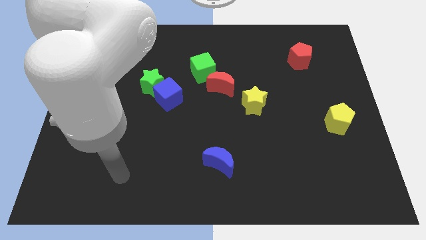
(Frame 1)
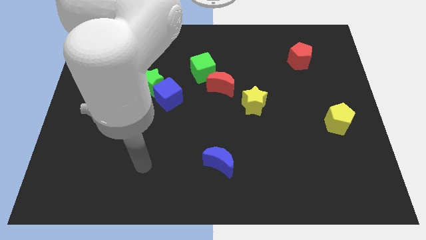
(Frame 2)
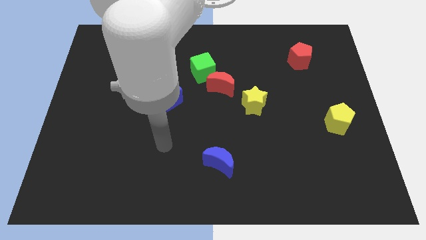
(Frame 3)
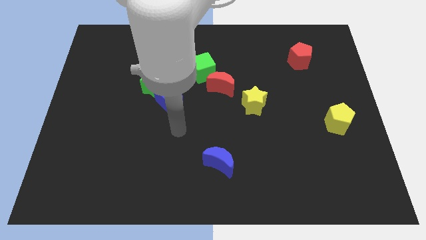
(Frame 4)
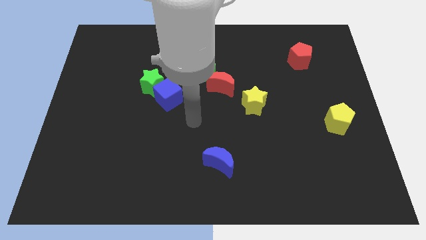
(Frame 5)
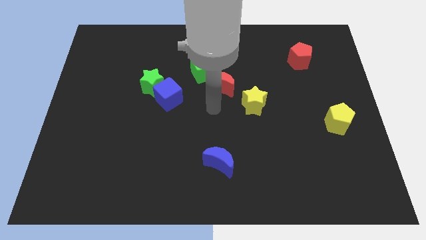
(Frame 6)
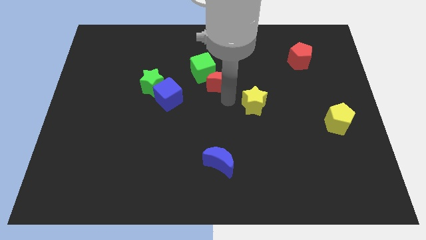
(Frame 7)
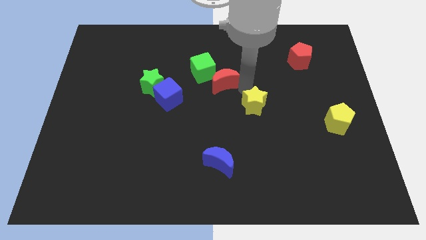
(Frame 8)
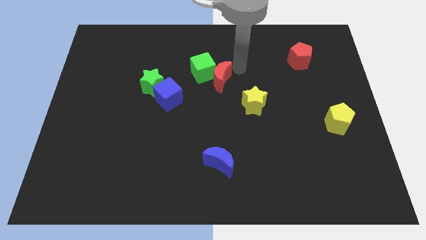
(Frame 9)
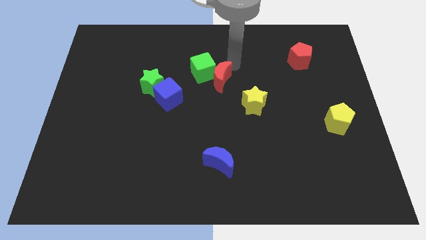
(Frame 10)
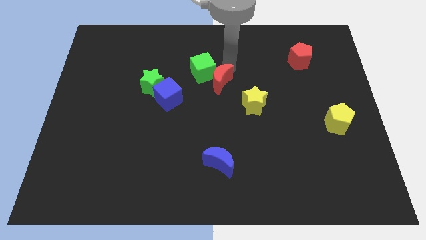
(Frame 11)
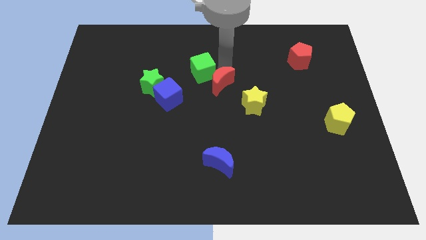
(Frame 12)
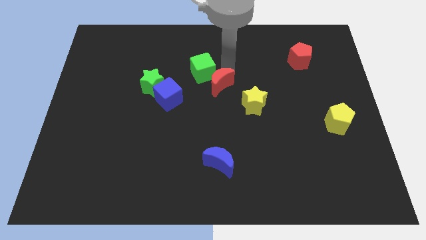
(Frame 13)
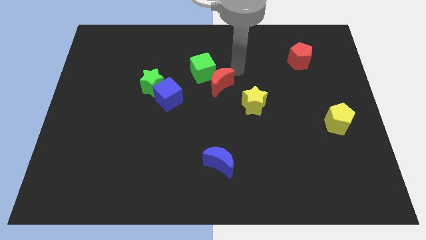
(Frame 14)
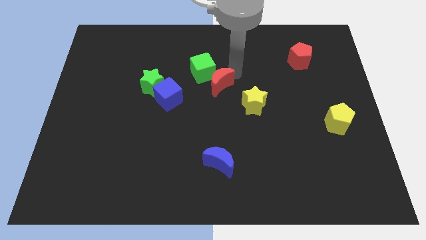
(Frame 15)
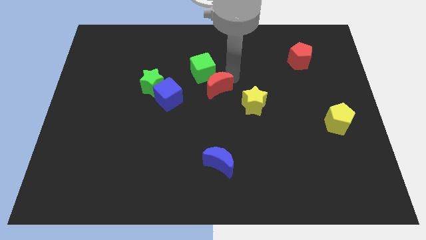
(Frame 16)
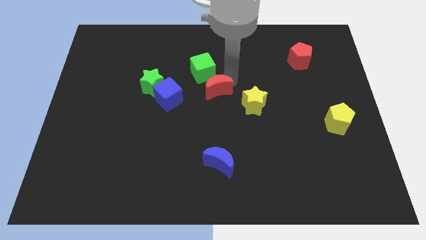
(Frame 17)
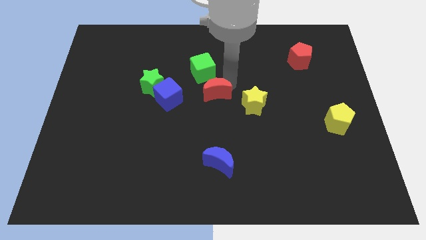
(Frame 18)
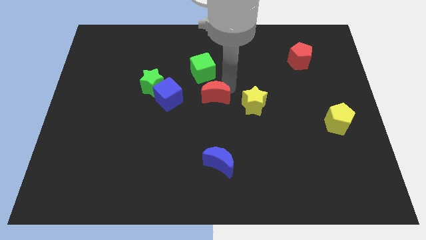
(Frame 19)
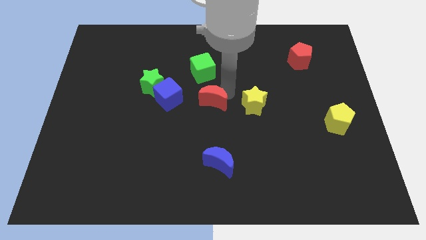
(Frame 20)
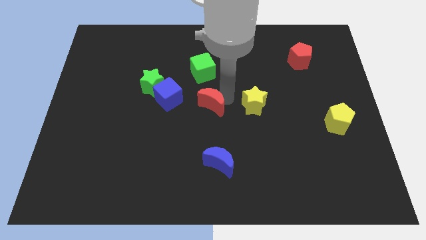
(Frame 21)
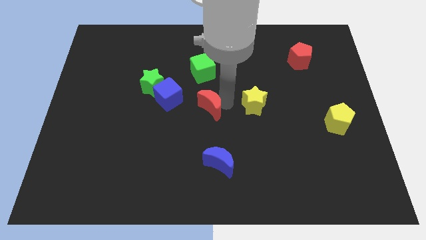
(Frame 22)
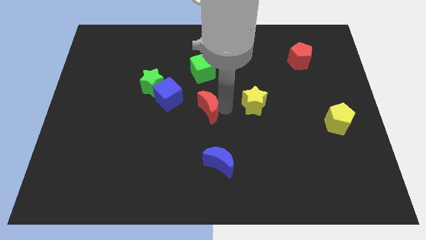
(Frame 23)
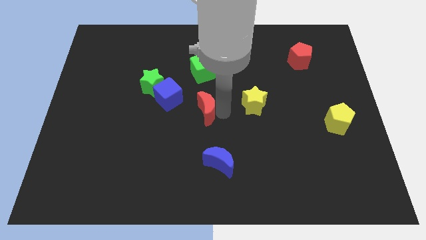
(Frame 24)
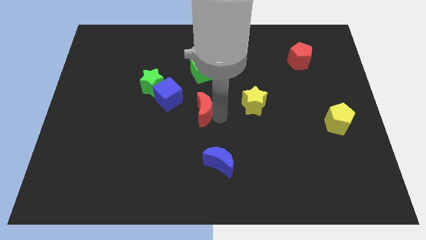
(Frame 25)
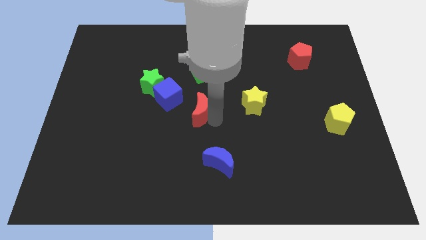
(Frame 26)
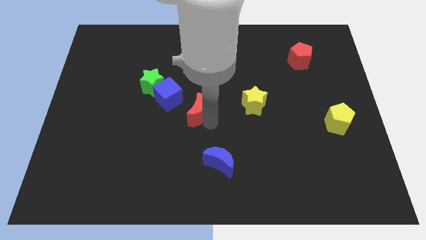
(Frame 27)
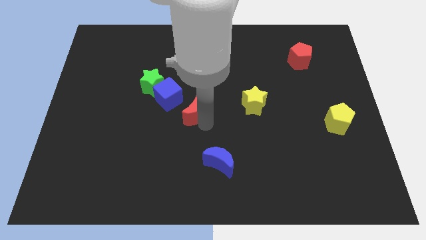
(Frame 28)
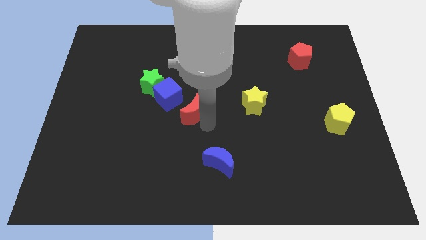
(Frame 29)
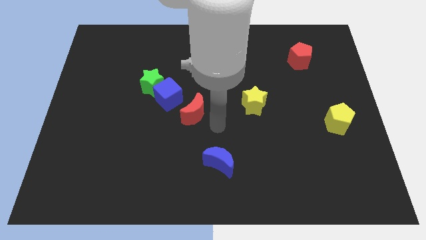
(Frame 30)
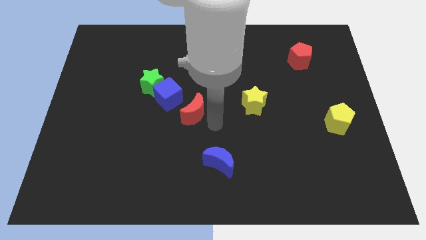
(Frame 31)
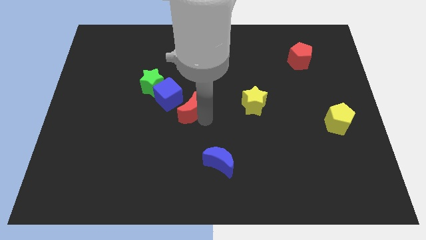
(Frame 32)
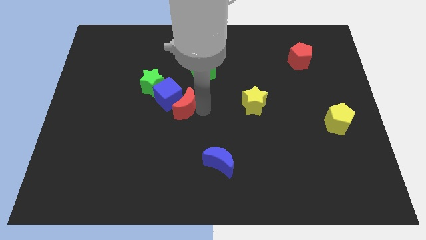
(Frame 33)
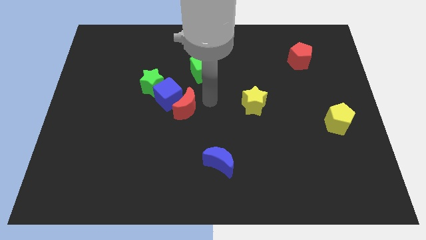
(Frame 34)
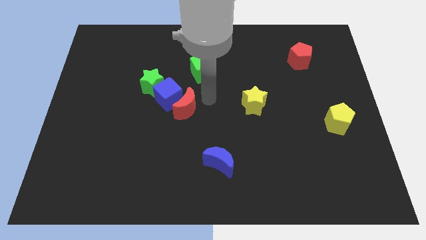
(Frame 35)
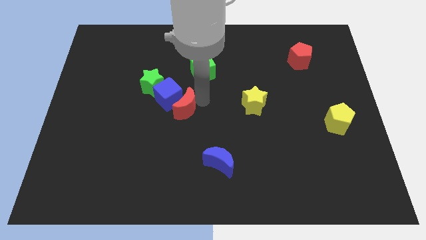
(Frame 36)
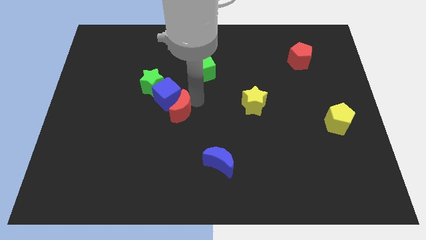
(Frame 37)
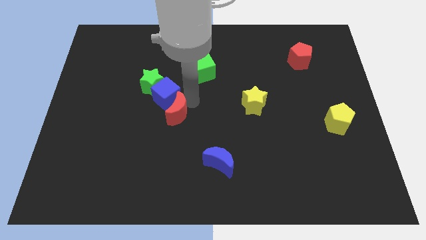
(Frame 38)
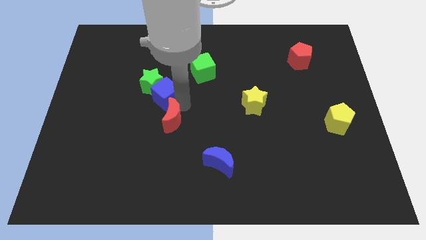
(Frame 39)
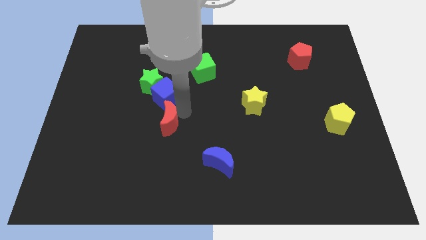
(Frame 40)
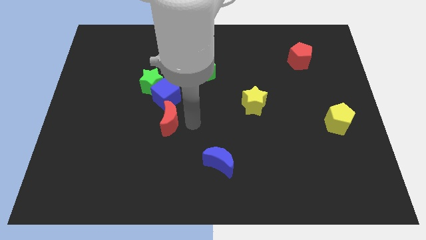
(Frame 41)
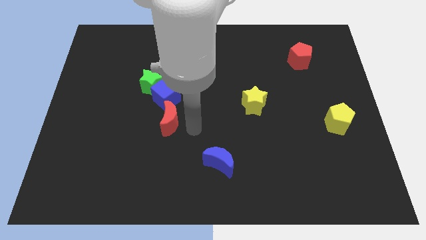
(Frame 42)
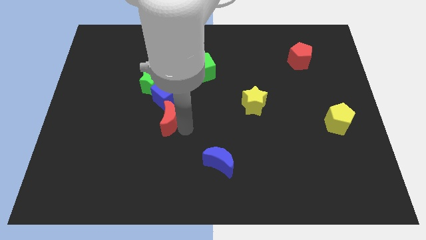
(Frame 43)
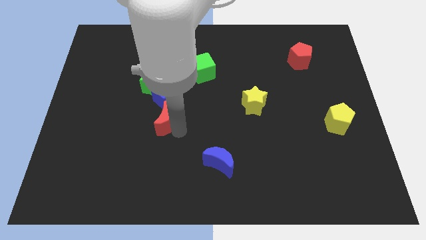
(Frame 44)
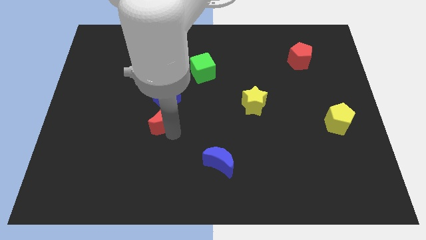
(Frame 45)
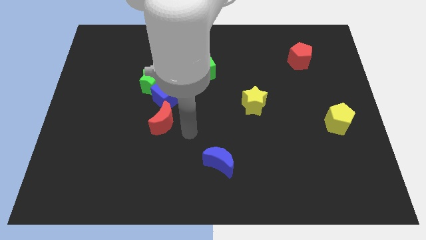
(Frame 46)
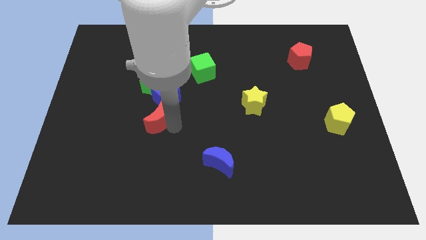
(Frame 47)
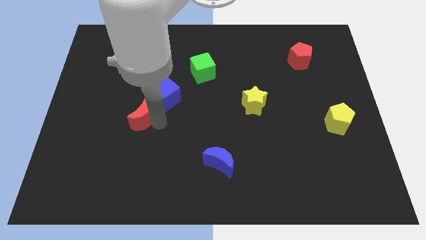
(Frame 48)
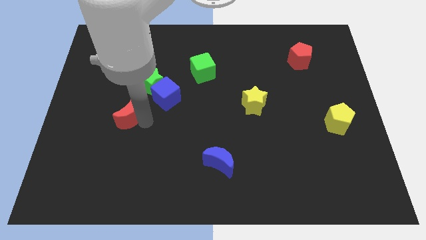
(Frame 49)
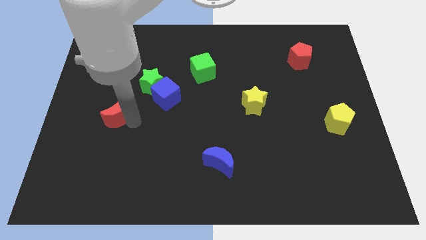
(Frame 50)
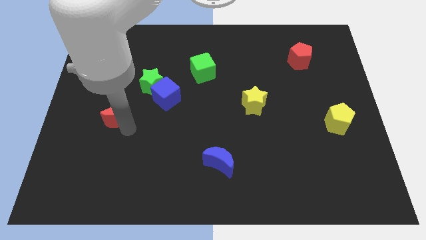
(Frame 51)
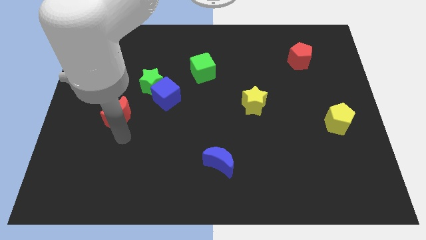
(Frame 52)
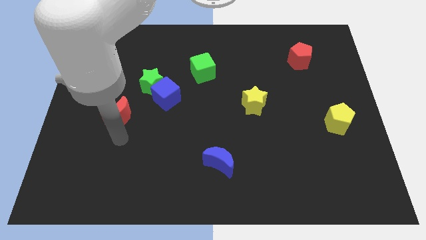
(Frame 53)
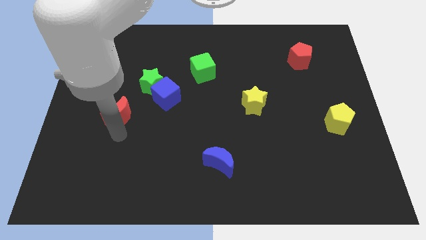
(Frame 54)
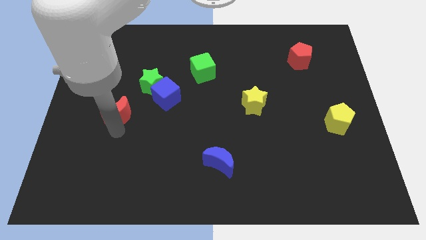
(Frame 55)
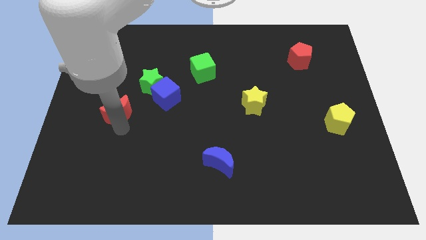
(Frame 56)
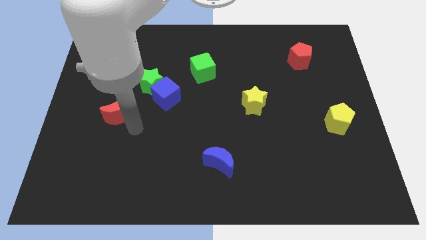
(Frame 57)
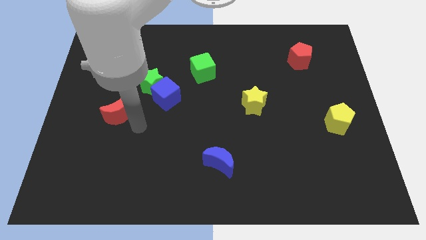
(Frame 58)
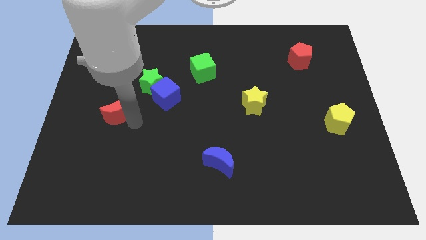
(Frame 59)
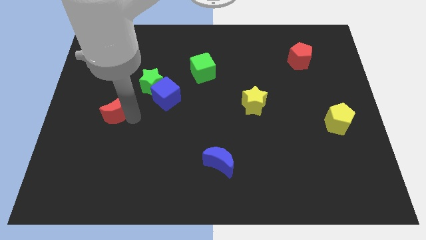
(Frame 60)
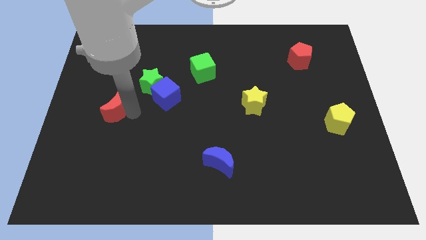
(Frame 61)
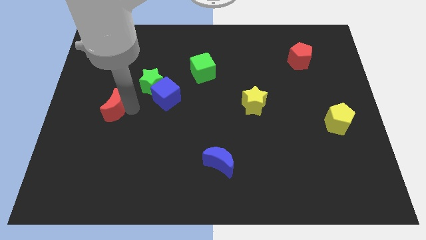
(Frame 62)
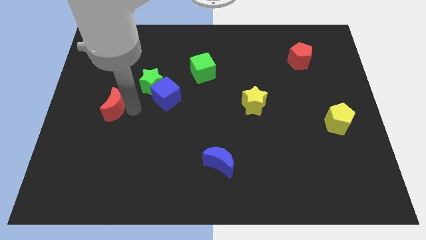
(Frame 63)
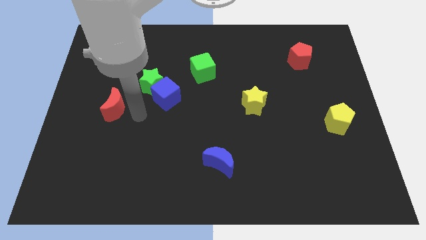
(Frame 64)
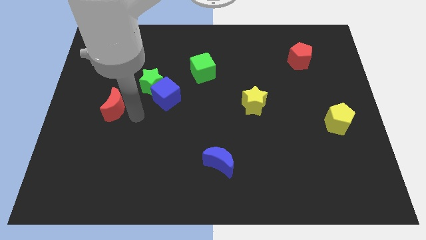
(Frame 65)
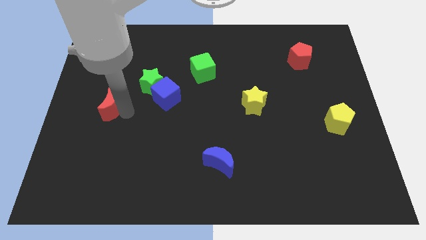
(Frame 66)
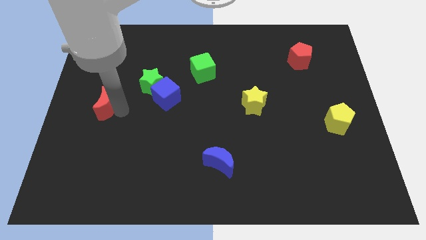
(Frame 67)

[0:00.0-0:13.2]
push the red moon to the left side
